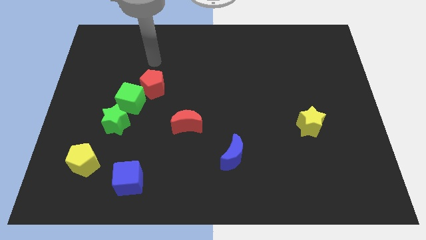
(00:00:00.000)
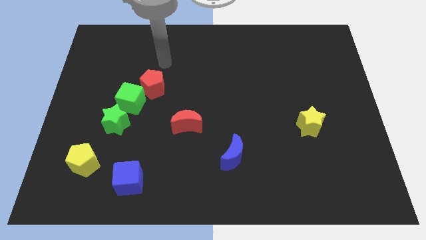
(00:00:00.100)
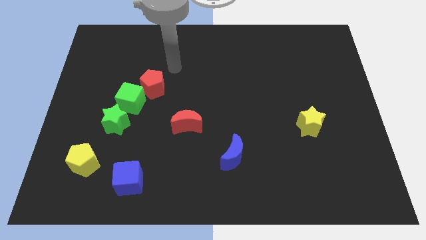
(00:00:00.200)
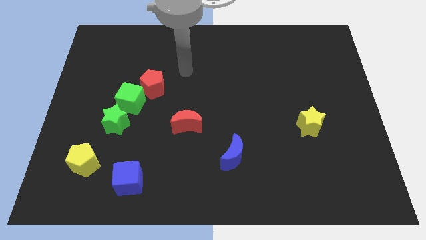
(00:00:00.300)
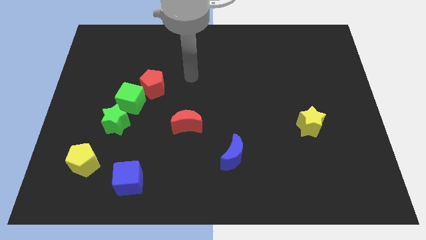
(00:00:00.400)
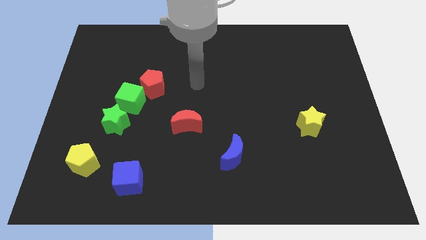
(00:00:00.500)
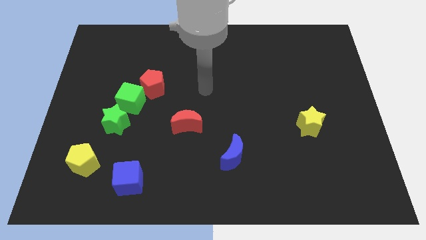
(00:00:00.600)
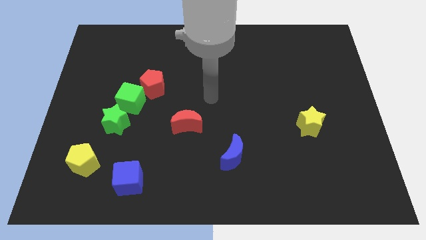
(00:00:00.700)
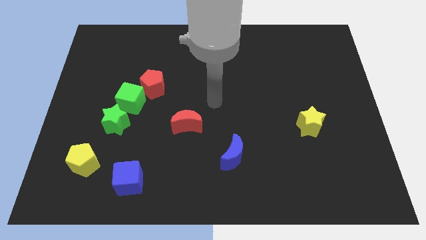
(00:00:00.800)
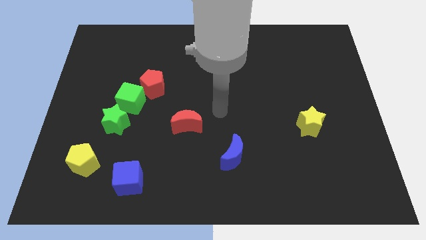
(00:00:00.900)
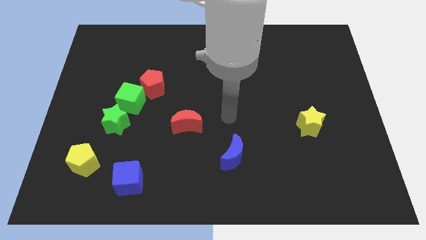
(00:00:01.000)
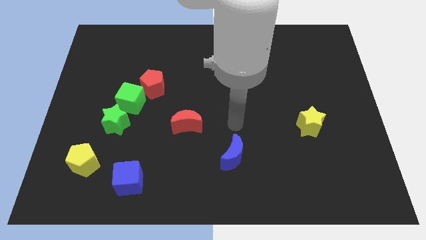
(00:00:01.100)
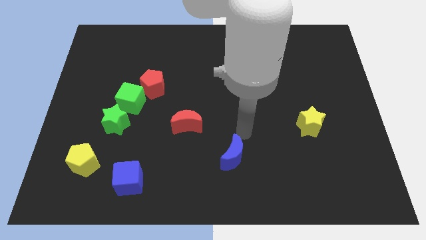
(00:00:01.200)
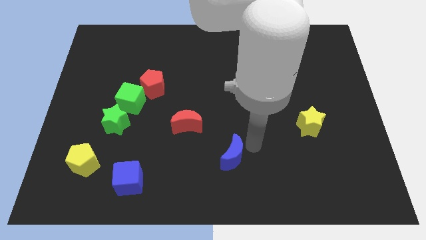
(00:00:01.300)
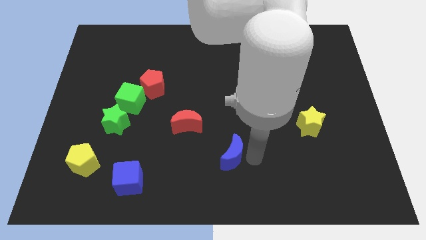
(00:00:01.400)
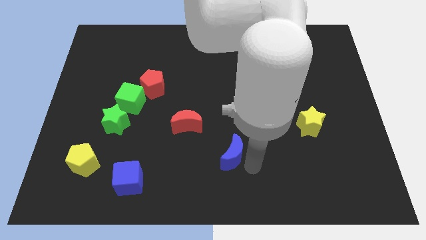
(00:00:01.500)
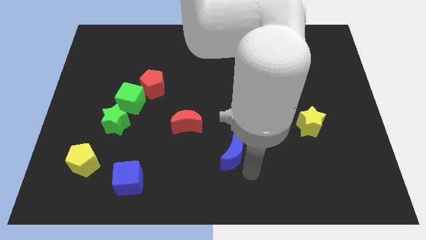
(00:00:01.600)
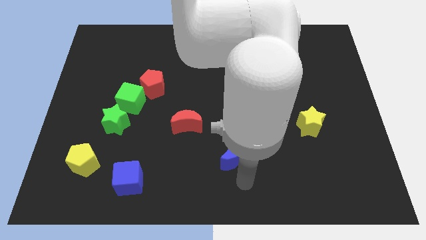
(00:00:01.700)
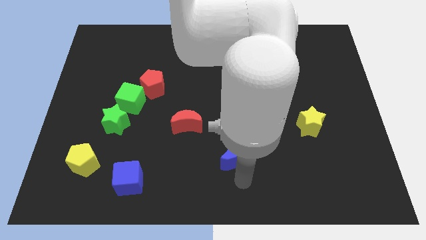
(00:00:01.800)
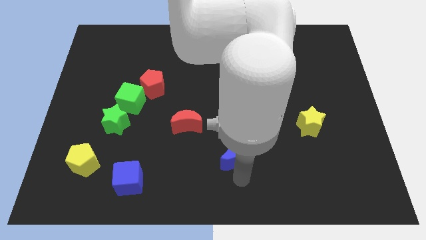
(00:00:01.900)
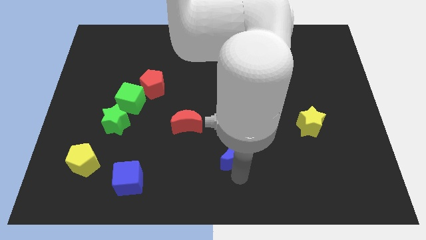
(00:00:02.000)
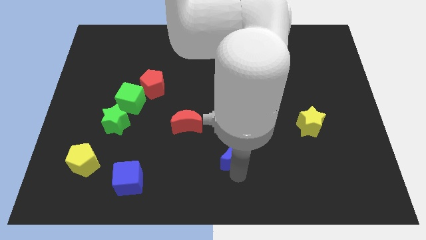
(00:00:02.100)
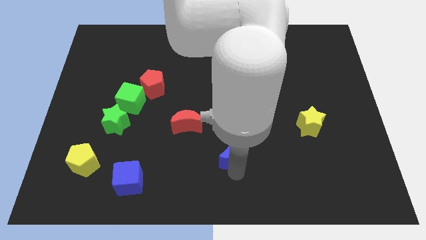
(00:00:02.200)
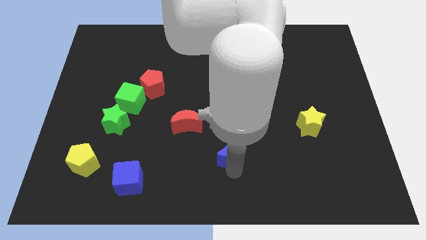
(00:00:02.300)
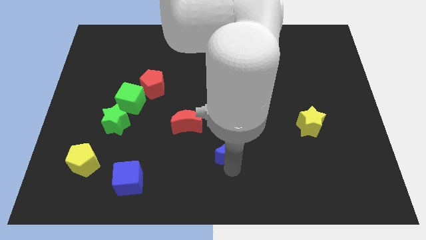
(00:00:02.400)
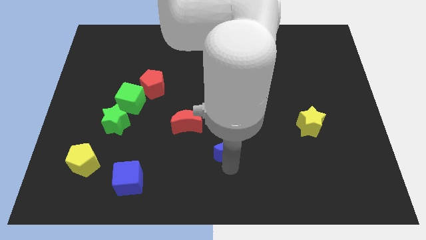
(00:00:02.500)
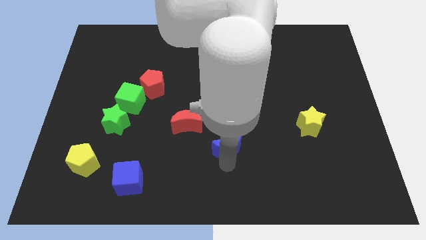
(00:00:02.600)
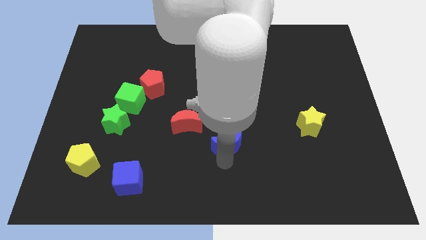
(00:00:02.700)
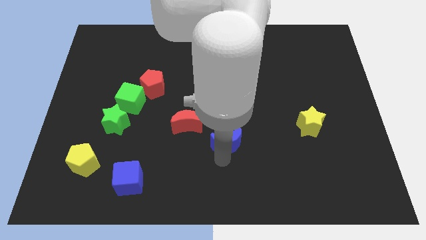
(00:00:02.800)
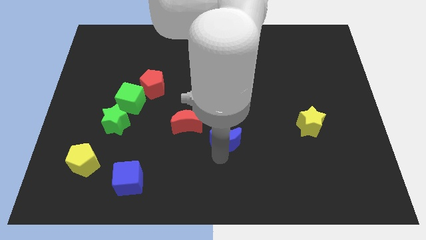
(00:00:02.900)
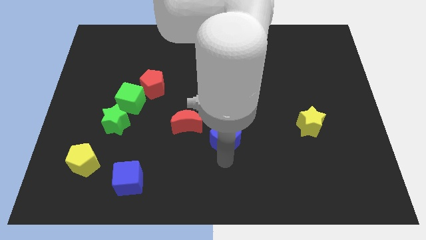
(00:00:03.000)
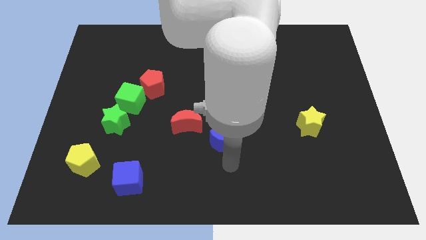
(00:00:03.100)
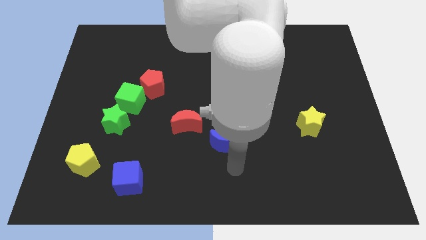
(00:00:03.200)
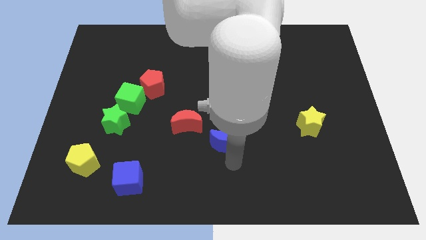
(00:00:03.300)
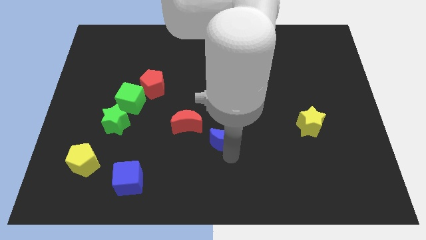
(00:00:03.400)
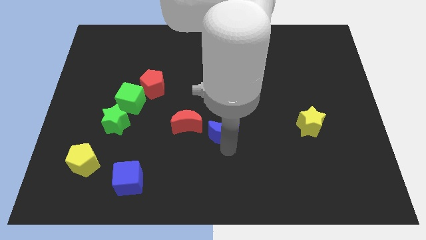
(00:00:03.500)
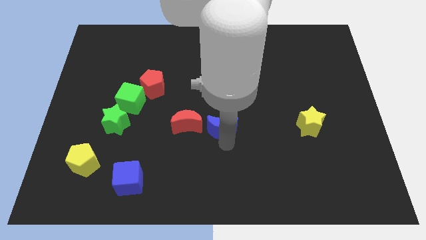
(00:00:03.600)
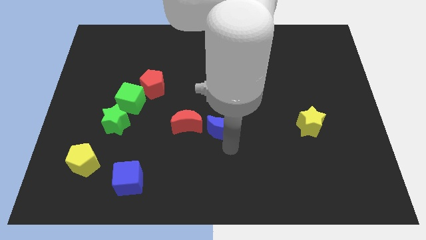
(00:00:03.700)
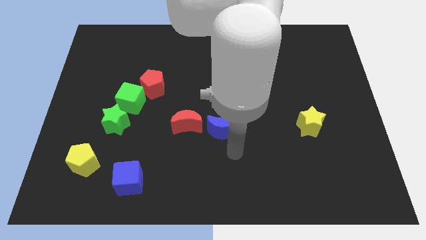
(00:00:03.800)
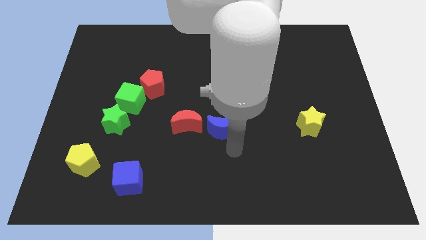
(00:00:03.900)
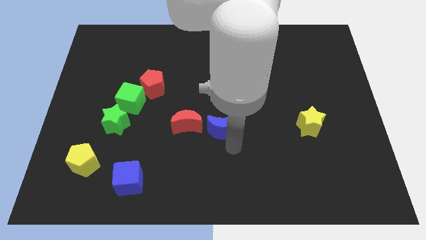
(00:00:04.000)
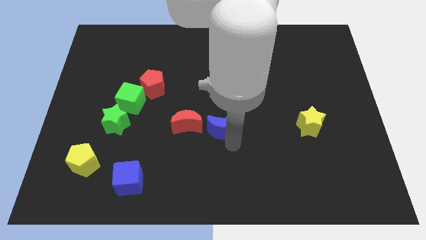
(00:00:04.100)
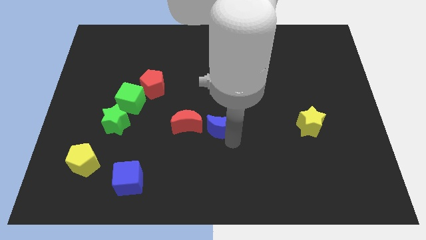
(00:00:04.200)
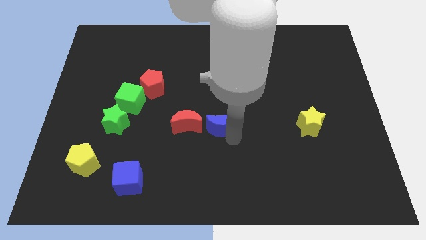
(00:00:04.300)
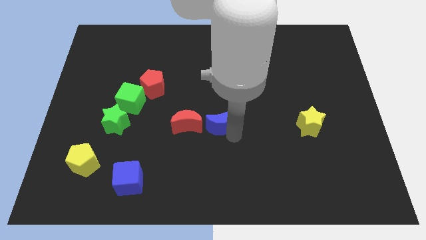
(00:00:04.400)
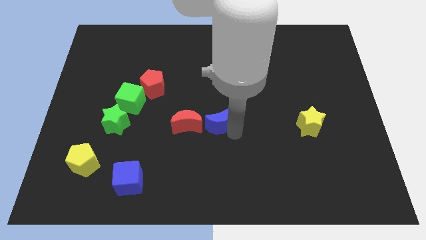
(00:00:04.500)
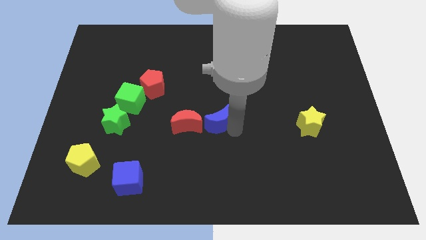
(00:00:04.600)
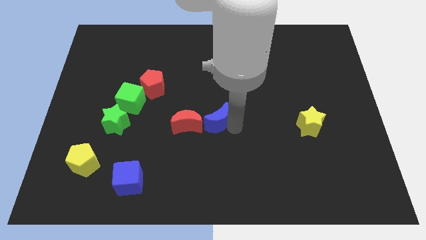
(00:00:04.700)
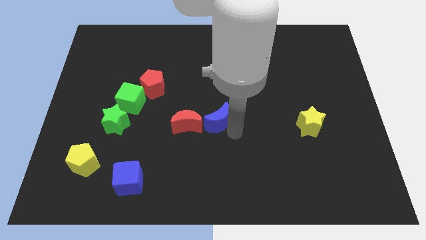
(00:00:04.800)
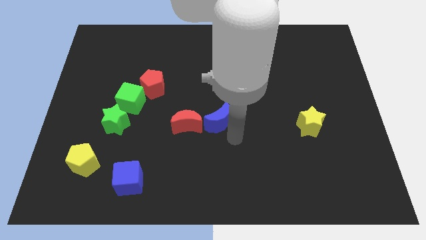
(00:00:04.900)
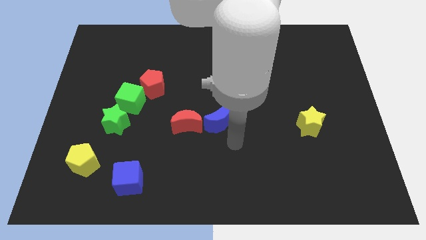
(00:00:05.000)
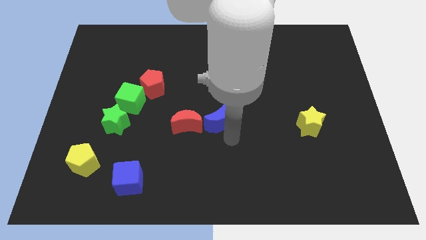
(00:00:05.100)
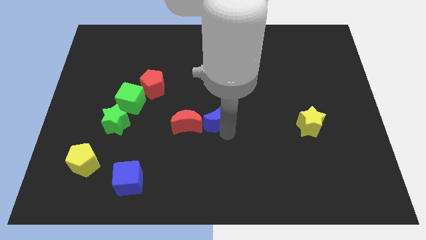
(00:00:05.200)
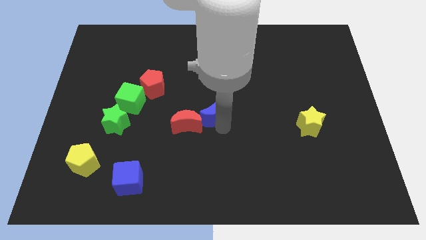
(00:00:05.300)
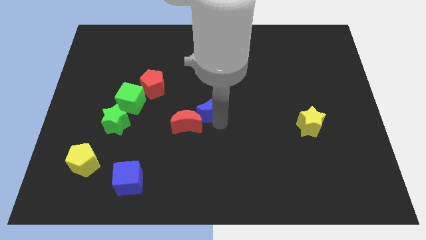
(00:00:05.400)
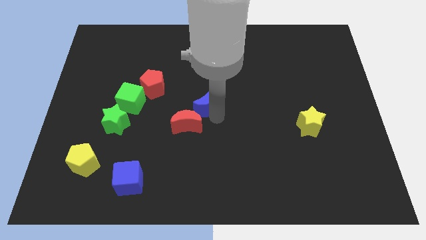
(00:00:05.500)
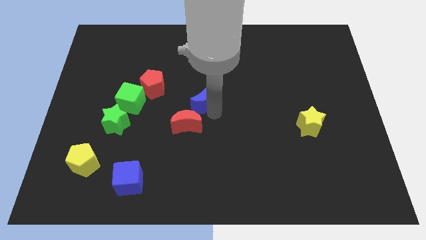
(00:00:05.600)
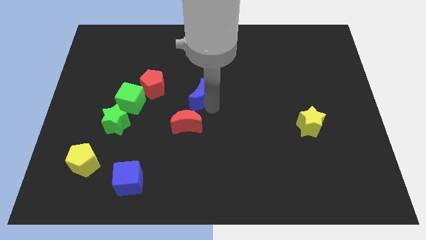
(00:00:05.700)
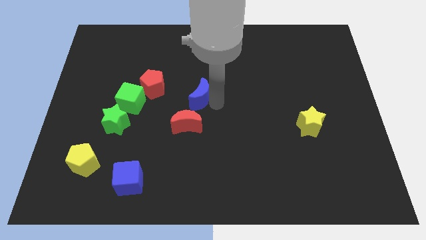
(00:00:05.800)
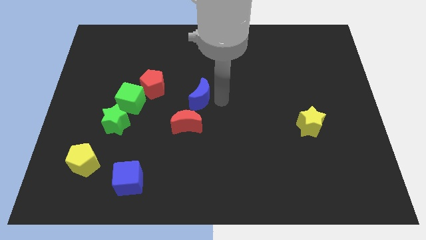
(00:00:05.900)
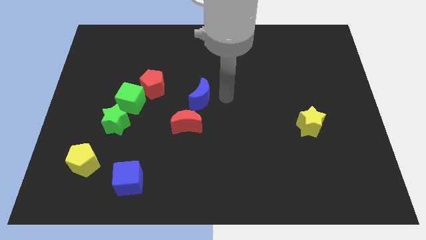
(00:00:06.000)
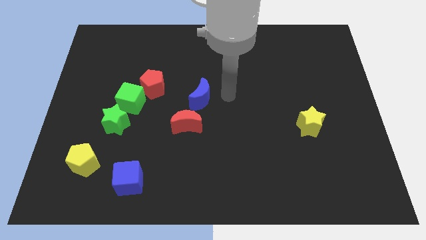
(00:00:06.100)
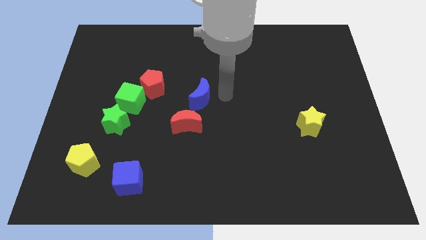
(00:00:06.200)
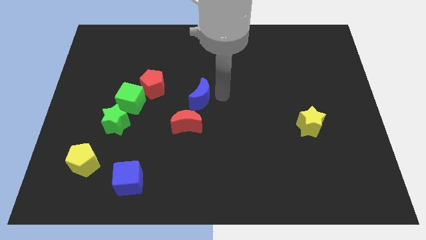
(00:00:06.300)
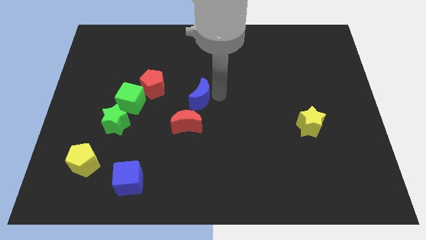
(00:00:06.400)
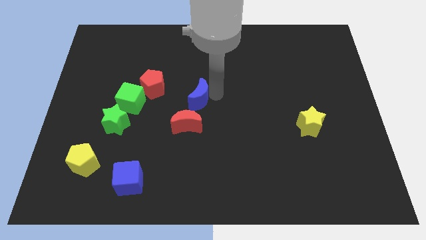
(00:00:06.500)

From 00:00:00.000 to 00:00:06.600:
slide the blue moon to the right side of the green cube

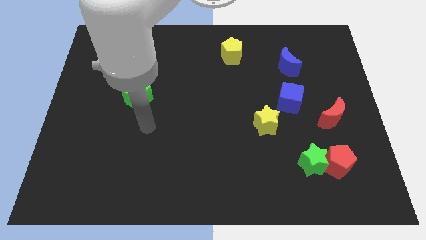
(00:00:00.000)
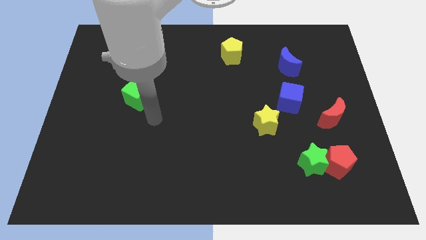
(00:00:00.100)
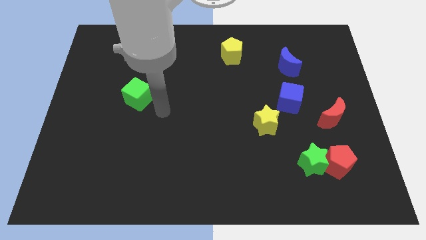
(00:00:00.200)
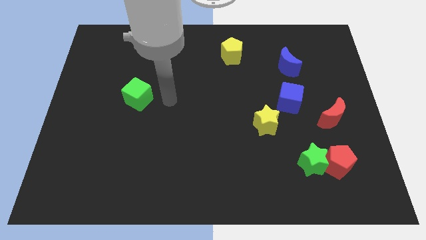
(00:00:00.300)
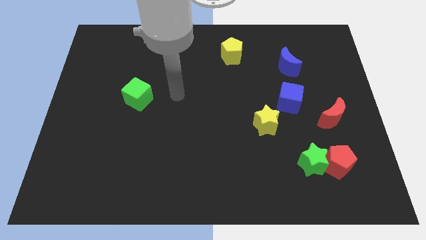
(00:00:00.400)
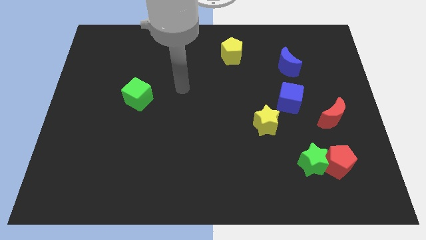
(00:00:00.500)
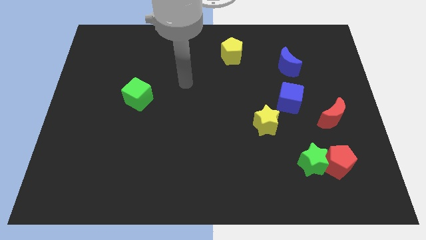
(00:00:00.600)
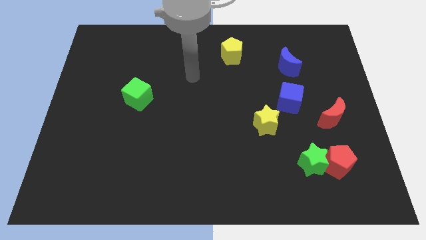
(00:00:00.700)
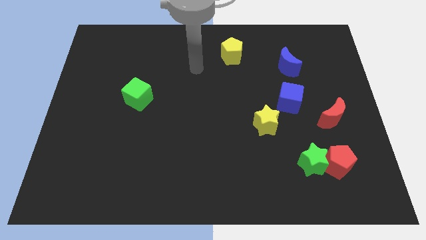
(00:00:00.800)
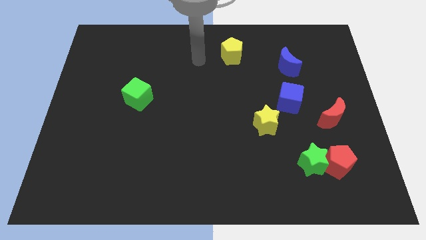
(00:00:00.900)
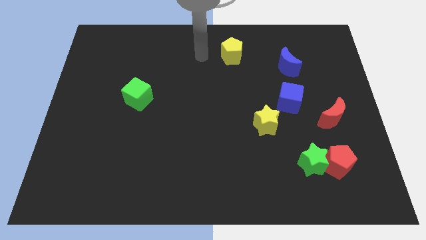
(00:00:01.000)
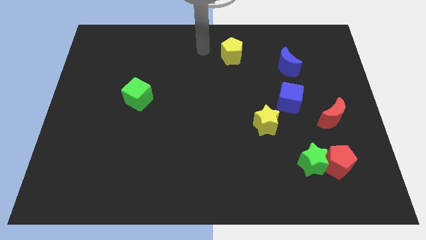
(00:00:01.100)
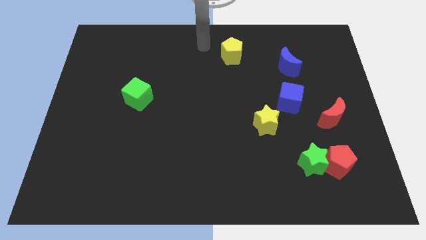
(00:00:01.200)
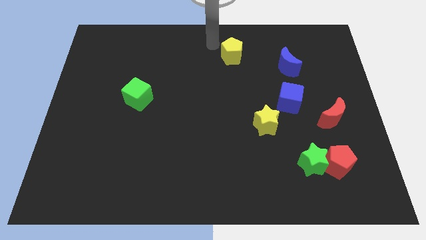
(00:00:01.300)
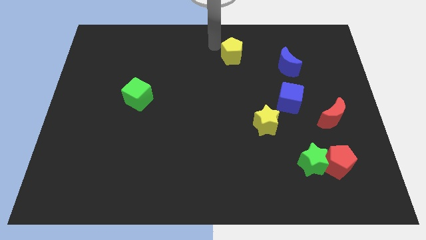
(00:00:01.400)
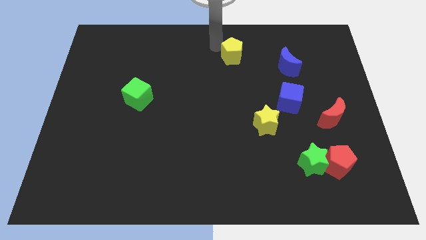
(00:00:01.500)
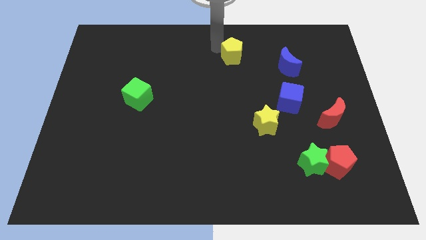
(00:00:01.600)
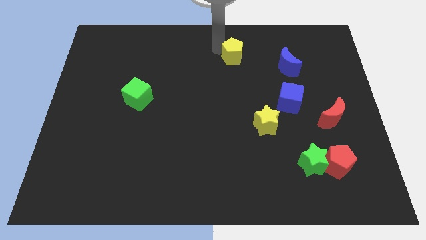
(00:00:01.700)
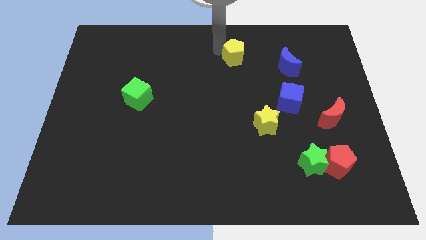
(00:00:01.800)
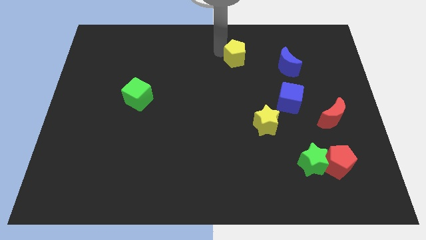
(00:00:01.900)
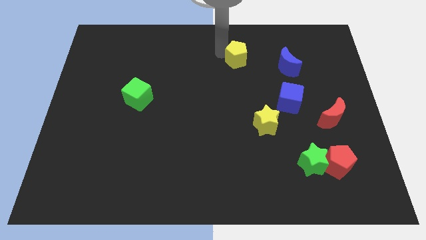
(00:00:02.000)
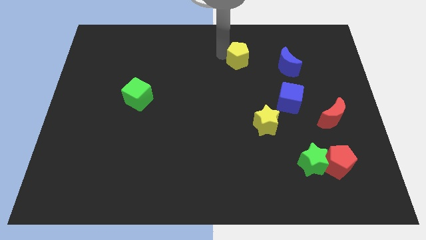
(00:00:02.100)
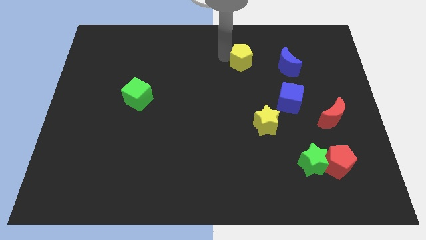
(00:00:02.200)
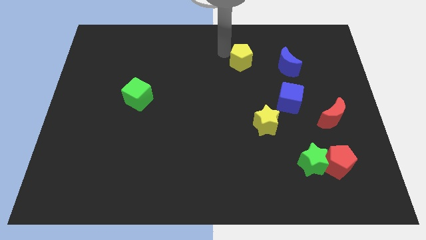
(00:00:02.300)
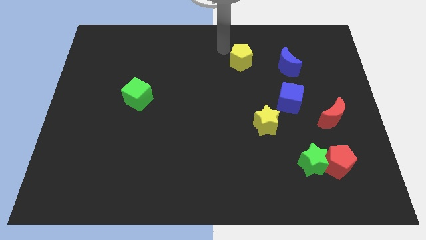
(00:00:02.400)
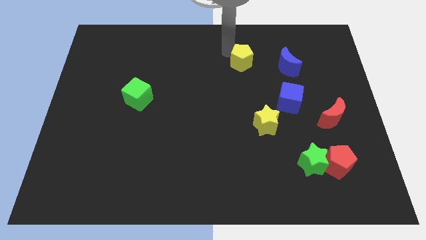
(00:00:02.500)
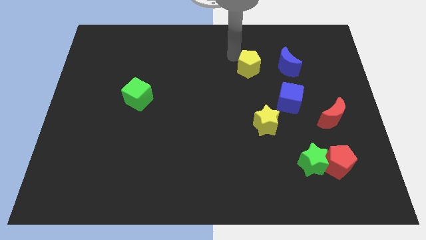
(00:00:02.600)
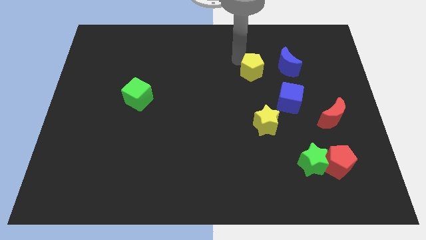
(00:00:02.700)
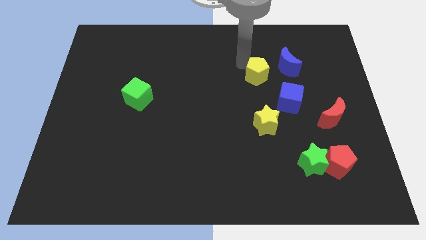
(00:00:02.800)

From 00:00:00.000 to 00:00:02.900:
push the yellow pentagon diagonally down and to the left of the blue moon
